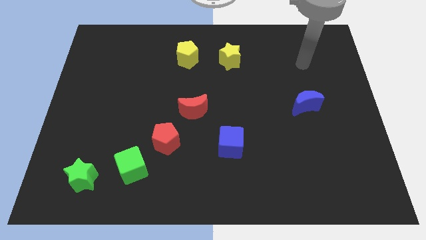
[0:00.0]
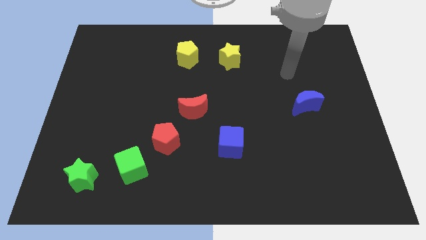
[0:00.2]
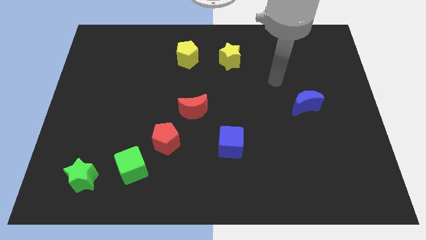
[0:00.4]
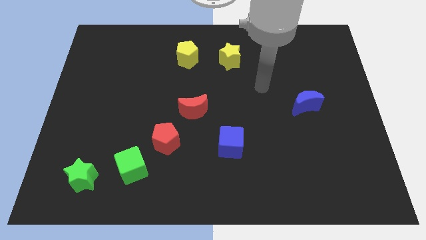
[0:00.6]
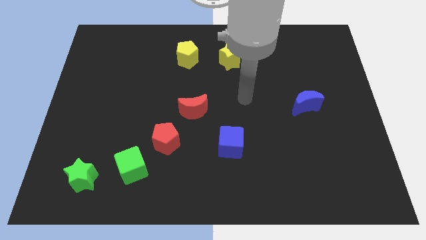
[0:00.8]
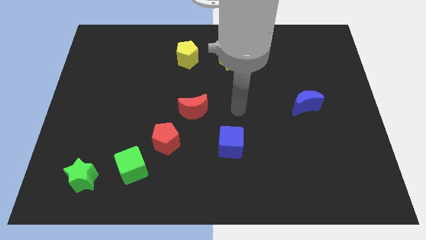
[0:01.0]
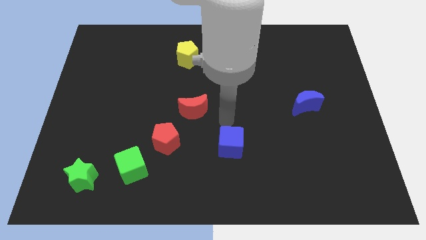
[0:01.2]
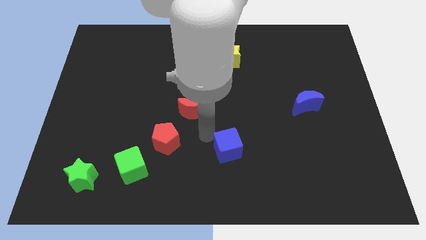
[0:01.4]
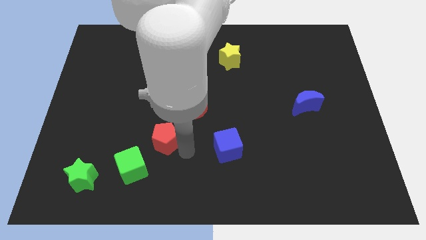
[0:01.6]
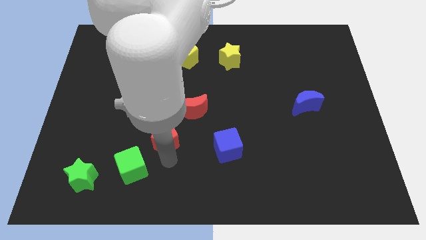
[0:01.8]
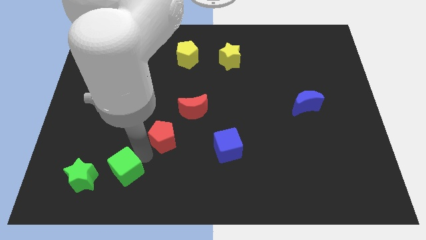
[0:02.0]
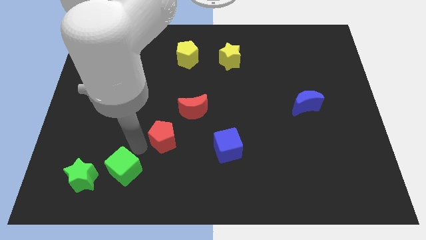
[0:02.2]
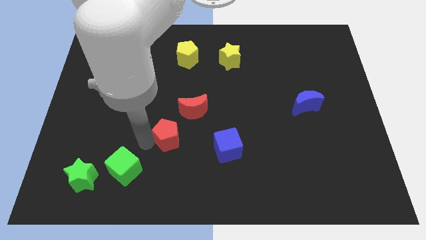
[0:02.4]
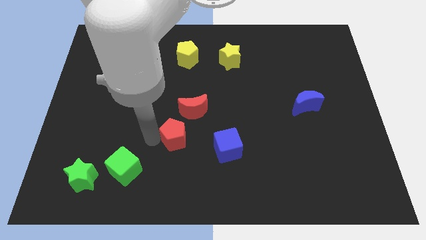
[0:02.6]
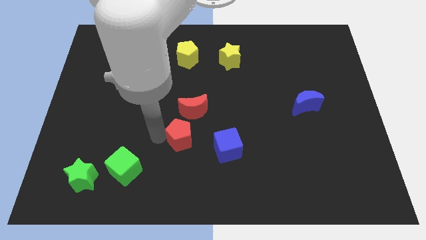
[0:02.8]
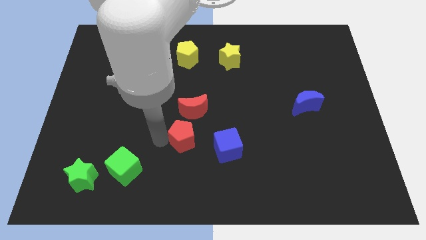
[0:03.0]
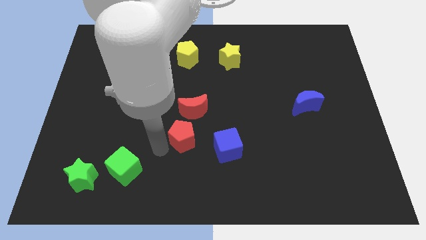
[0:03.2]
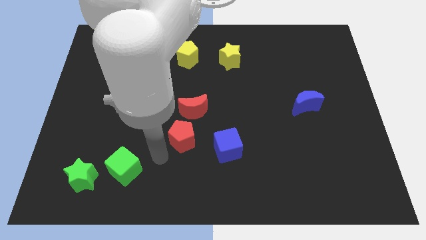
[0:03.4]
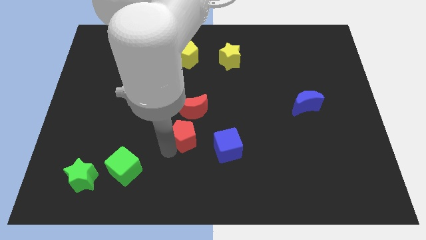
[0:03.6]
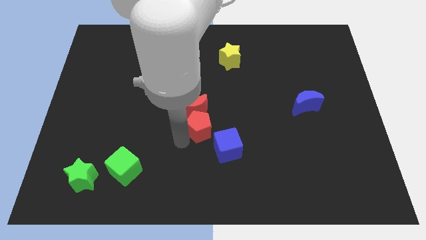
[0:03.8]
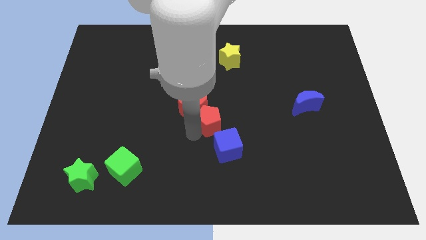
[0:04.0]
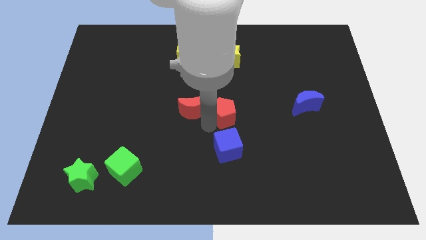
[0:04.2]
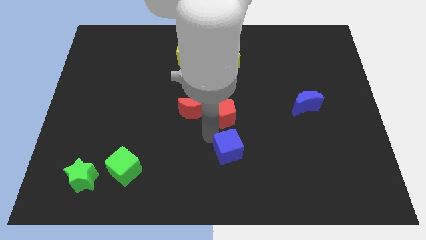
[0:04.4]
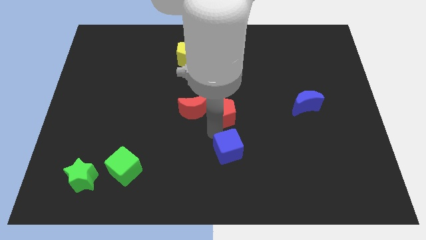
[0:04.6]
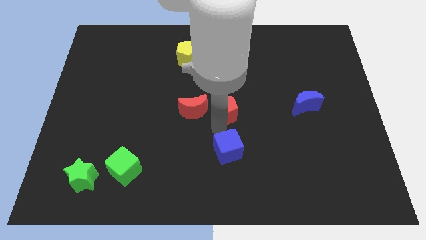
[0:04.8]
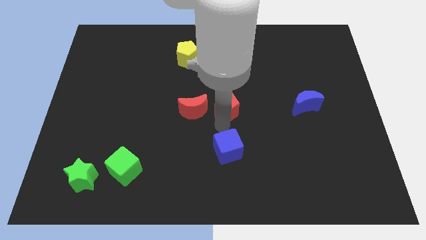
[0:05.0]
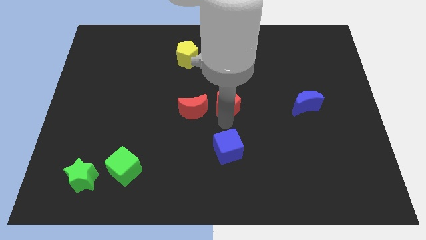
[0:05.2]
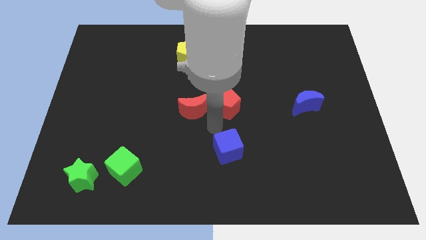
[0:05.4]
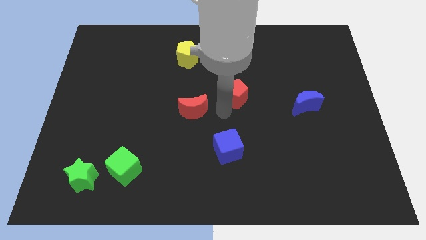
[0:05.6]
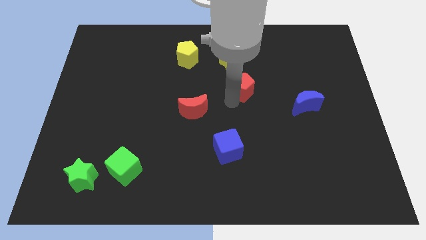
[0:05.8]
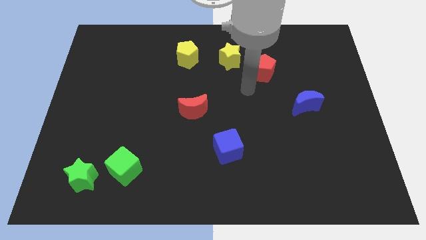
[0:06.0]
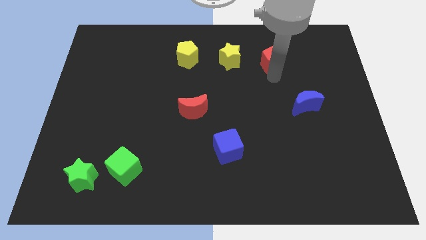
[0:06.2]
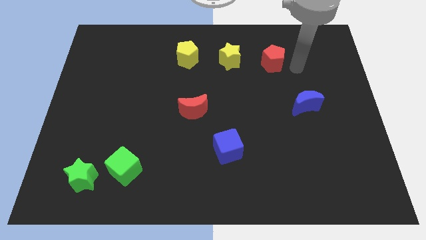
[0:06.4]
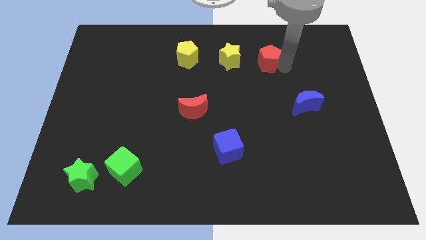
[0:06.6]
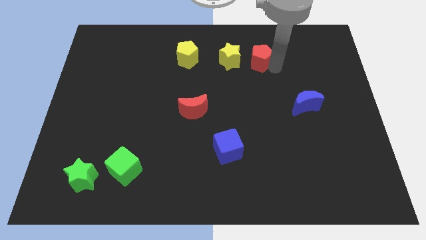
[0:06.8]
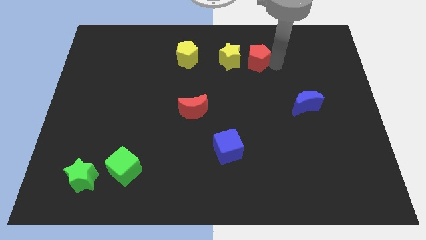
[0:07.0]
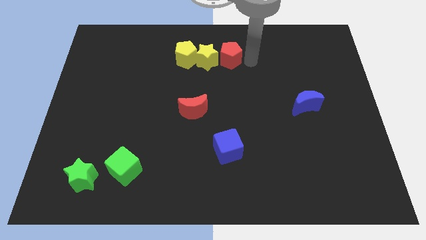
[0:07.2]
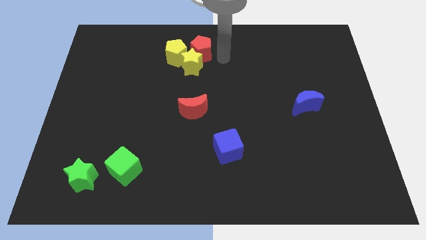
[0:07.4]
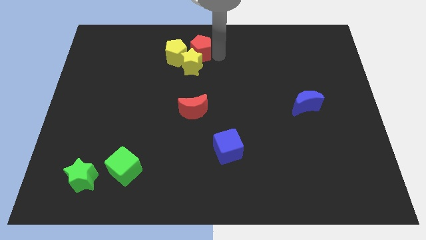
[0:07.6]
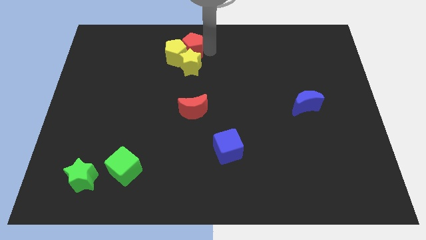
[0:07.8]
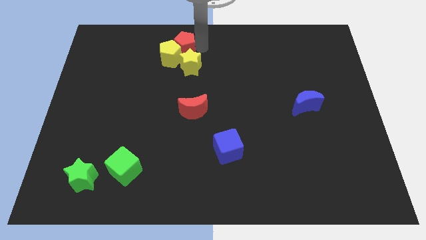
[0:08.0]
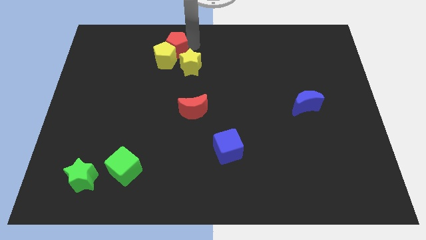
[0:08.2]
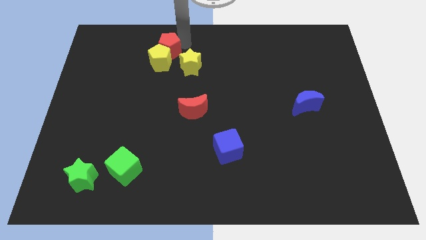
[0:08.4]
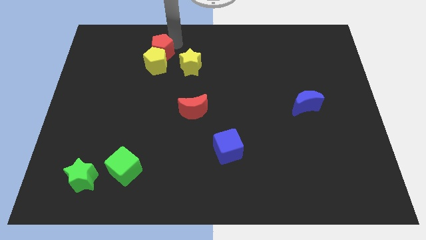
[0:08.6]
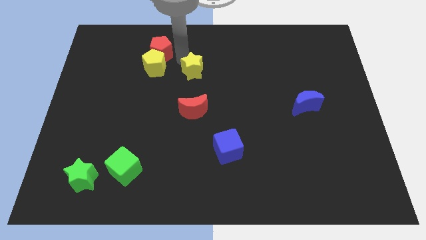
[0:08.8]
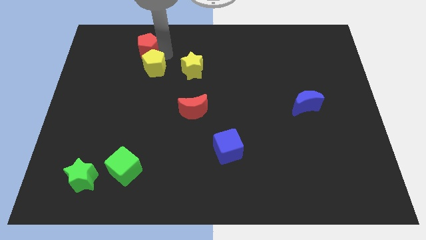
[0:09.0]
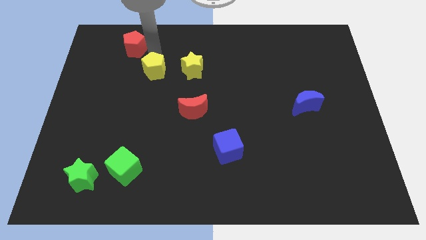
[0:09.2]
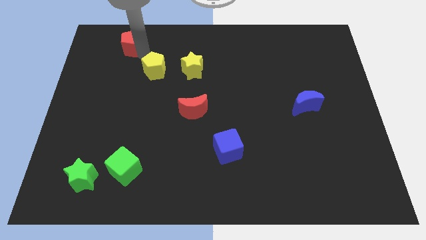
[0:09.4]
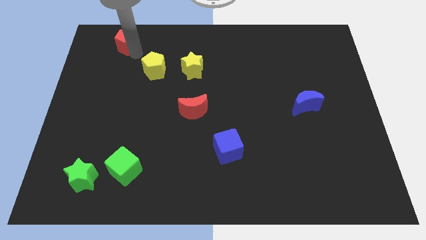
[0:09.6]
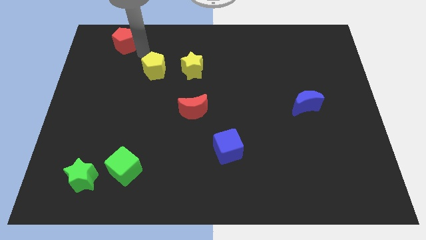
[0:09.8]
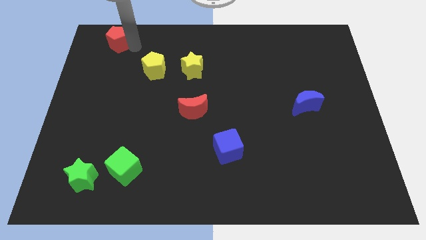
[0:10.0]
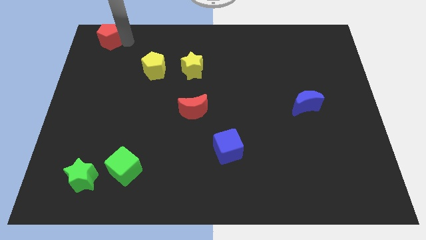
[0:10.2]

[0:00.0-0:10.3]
move the red pentagon to the top left of the board

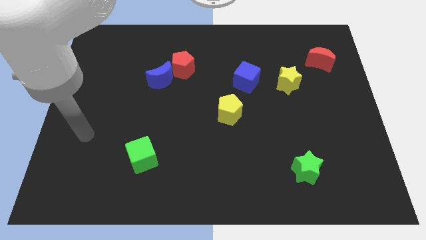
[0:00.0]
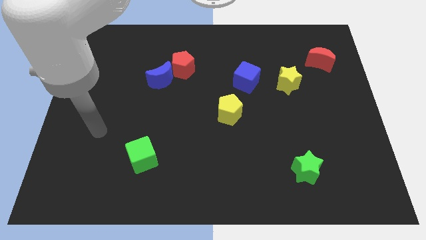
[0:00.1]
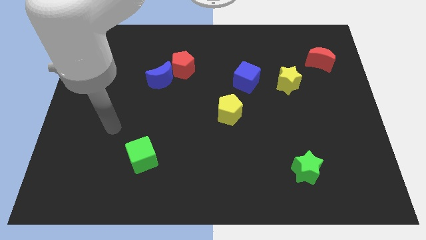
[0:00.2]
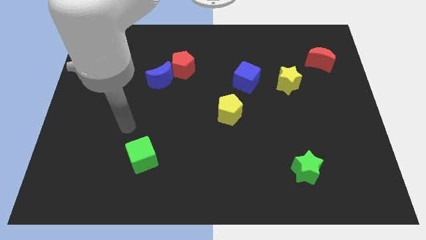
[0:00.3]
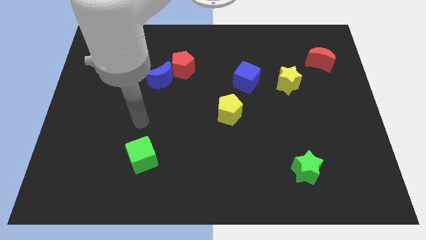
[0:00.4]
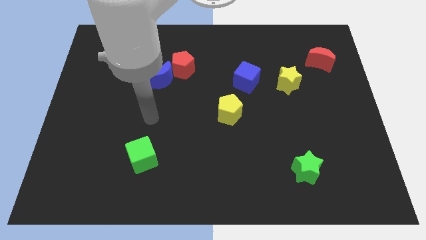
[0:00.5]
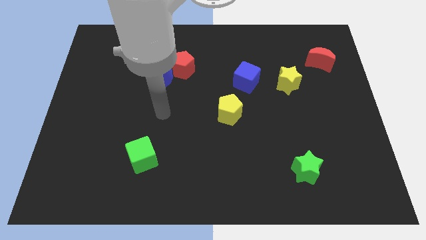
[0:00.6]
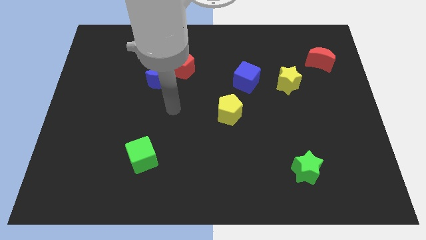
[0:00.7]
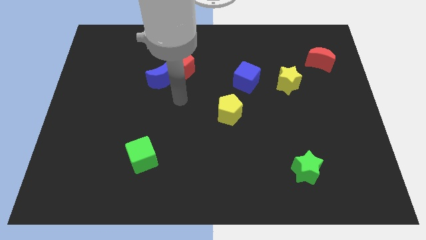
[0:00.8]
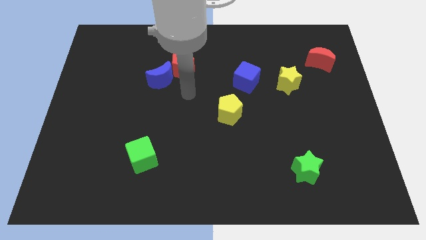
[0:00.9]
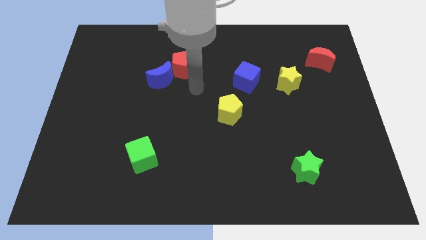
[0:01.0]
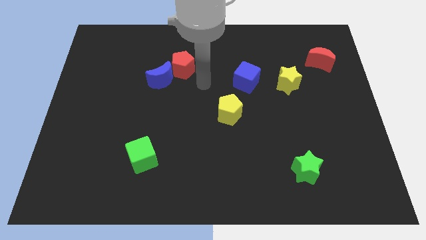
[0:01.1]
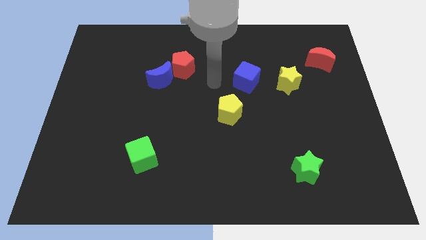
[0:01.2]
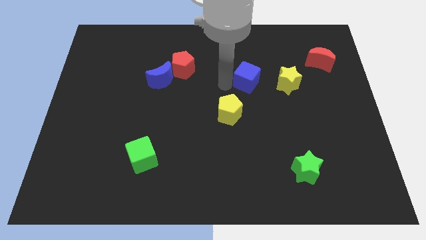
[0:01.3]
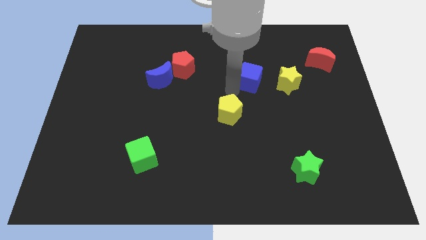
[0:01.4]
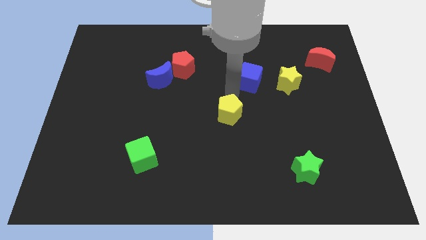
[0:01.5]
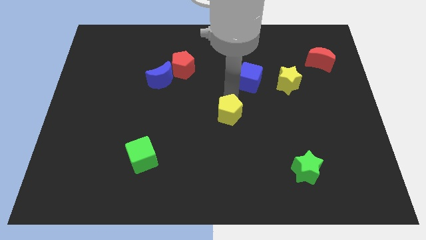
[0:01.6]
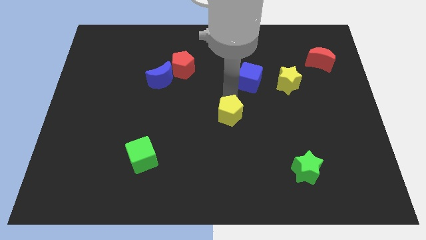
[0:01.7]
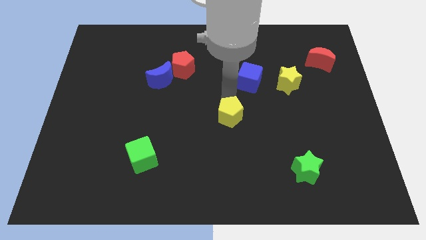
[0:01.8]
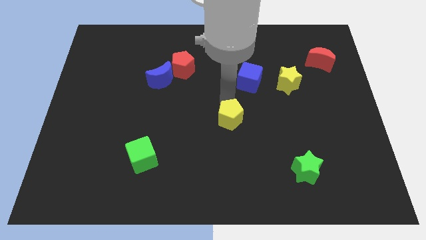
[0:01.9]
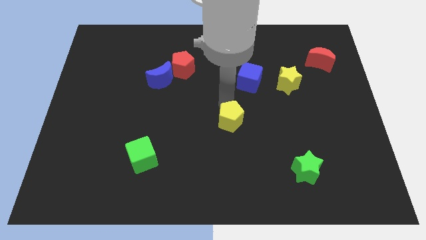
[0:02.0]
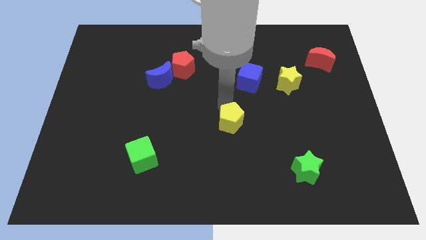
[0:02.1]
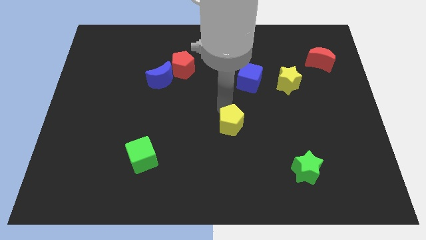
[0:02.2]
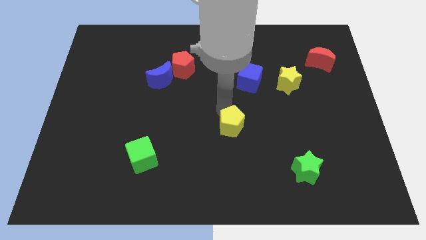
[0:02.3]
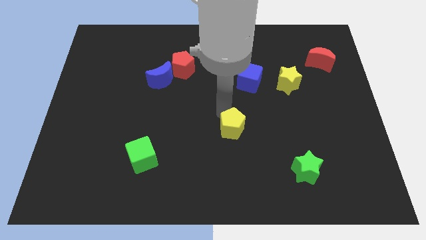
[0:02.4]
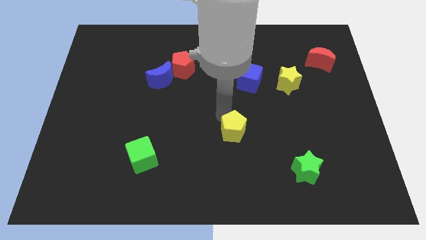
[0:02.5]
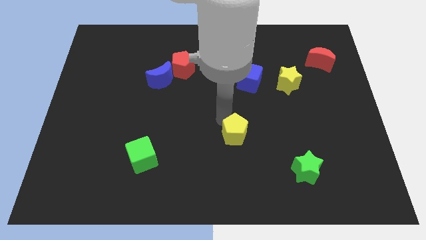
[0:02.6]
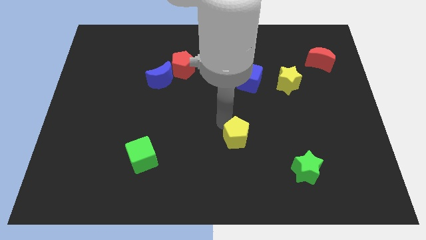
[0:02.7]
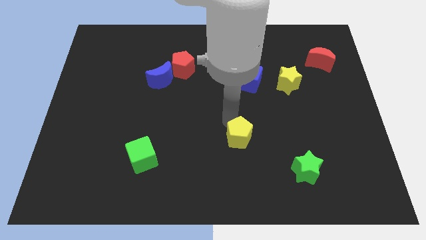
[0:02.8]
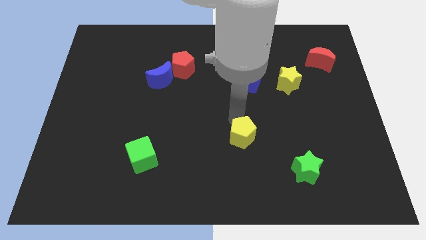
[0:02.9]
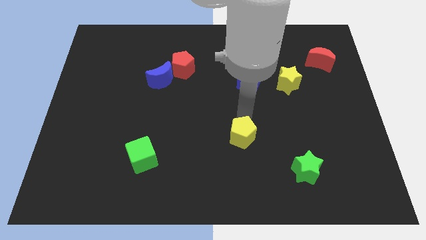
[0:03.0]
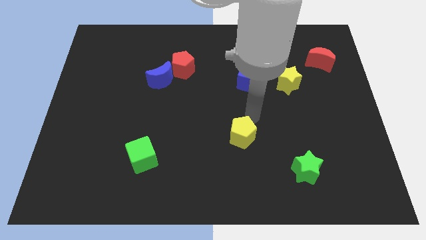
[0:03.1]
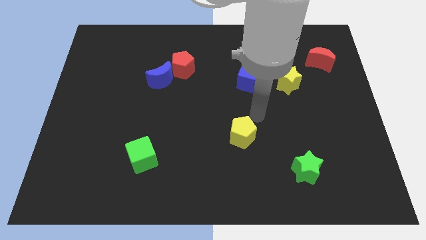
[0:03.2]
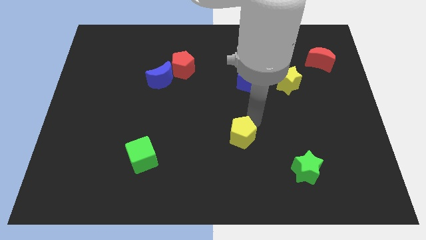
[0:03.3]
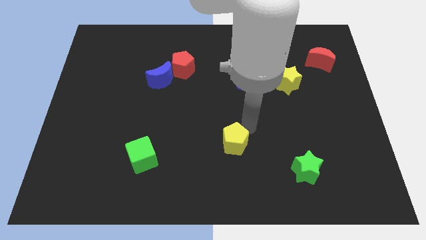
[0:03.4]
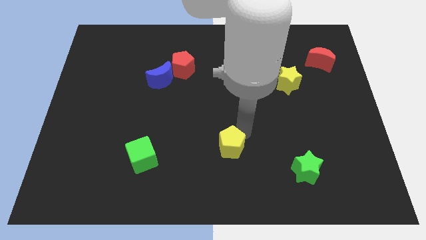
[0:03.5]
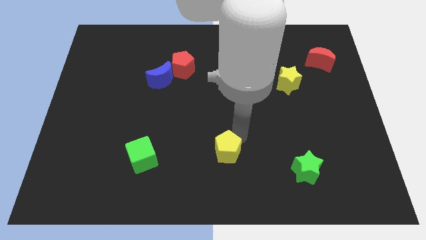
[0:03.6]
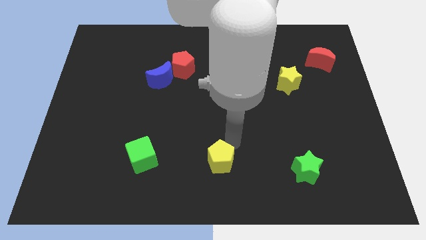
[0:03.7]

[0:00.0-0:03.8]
move the yellow pentagon to the bottom side
